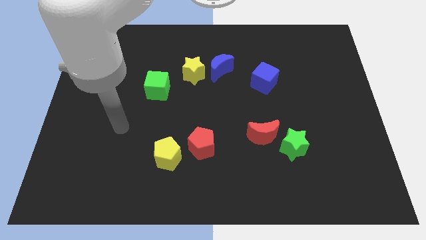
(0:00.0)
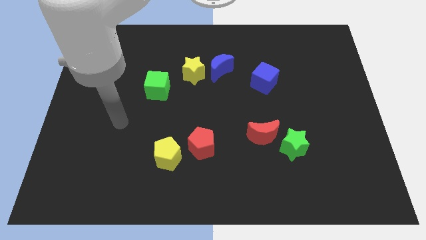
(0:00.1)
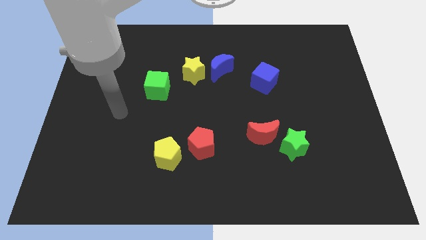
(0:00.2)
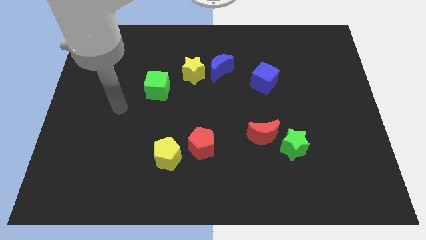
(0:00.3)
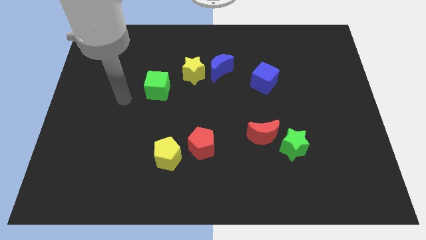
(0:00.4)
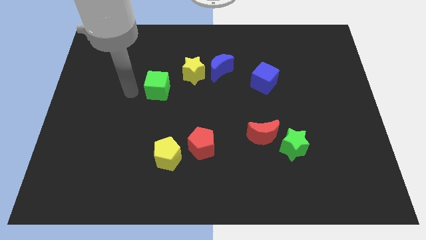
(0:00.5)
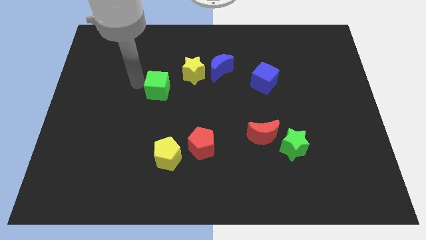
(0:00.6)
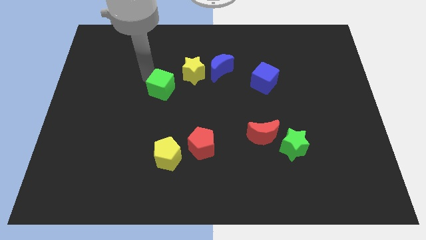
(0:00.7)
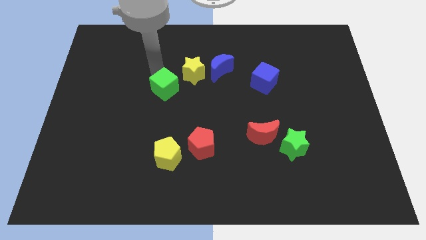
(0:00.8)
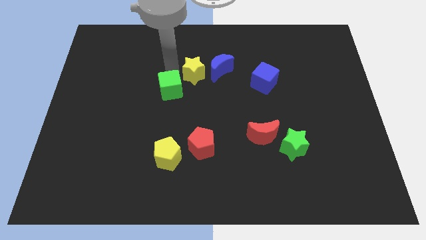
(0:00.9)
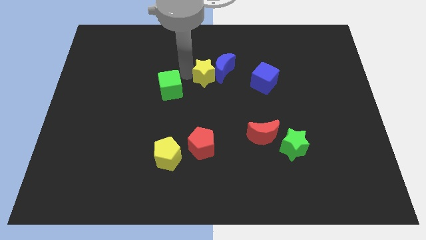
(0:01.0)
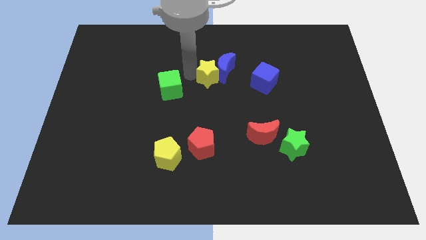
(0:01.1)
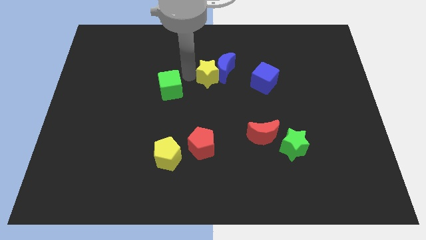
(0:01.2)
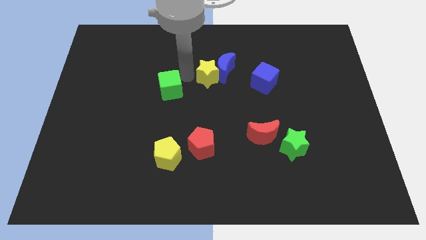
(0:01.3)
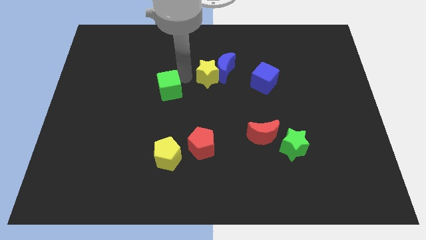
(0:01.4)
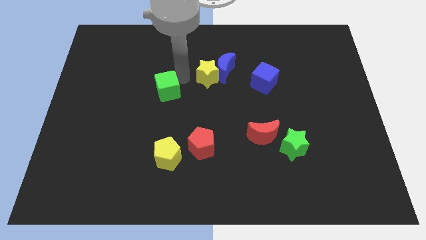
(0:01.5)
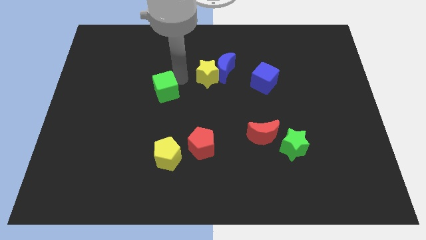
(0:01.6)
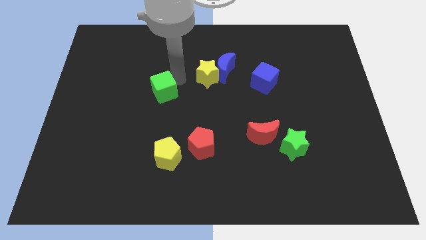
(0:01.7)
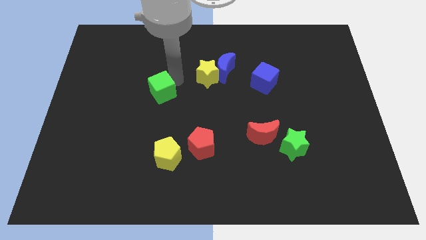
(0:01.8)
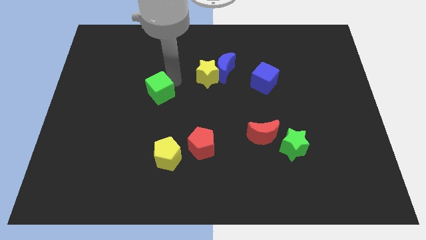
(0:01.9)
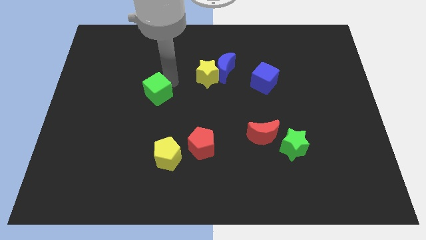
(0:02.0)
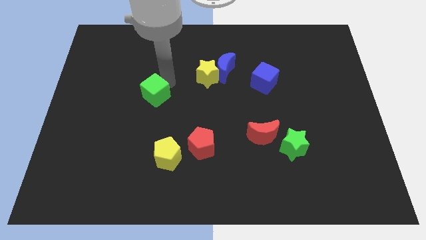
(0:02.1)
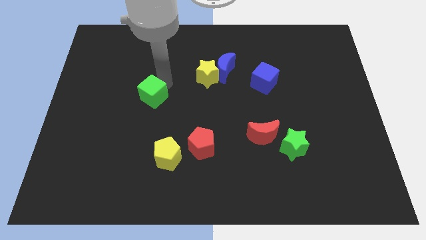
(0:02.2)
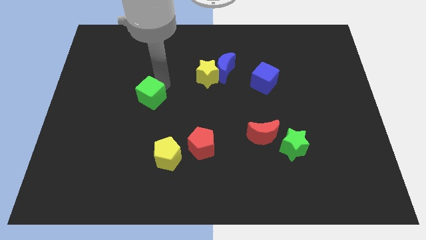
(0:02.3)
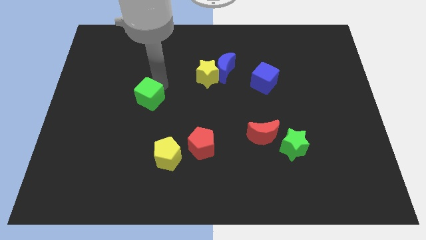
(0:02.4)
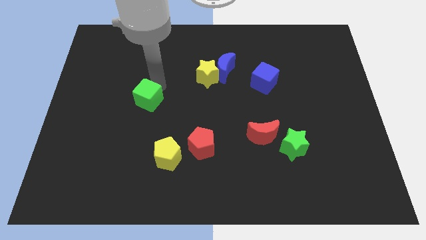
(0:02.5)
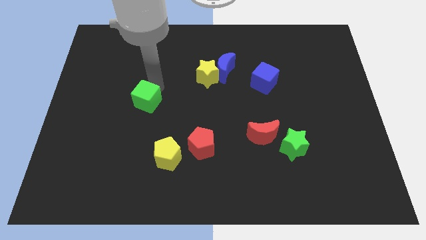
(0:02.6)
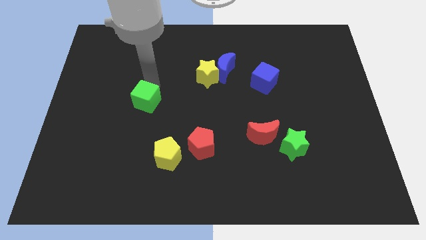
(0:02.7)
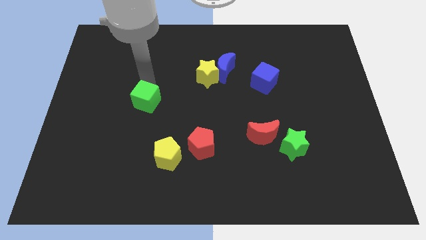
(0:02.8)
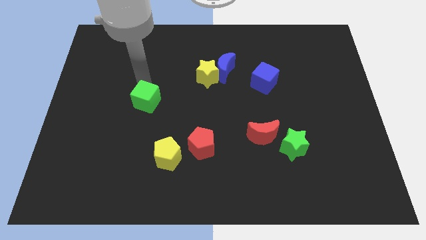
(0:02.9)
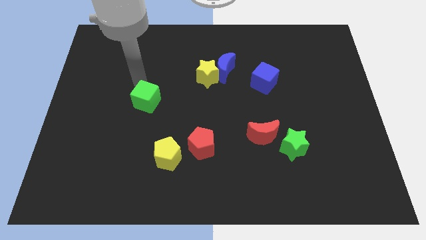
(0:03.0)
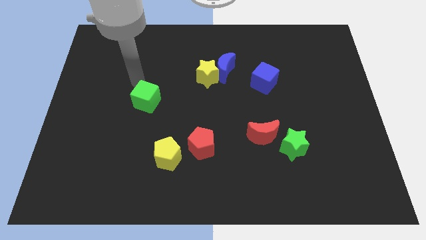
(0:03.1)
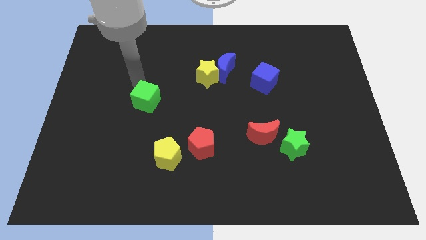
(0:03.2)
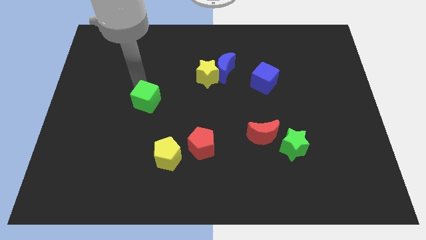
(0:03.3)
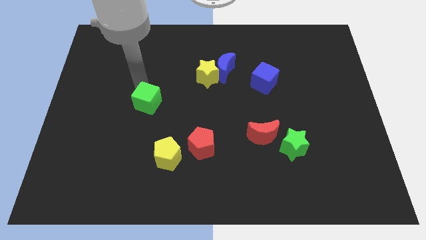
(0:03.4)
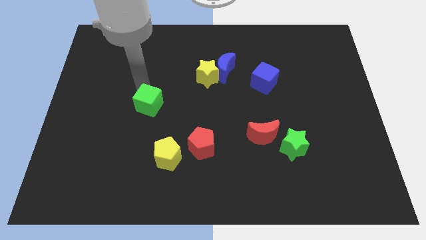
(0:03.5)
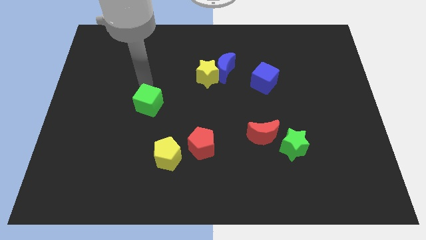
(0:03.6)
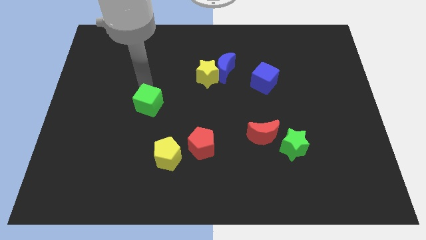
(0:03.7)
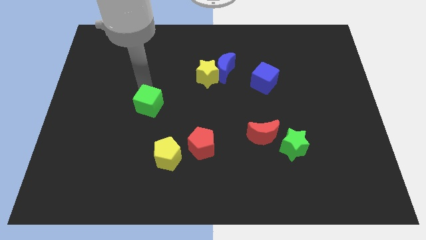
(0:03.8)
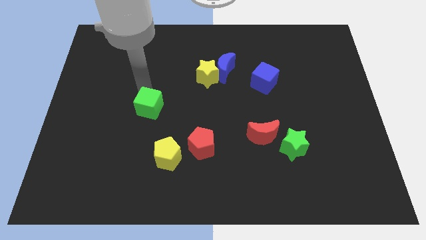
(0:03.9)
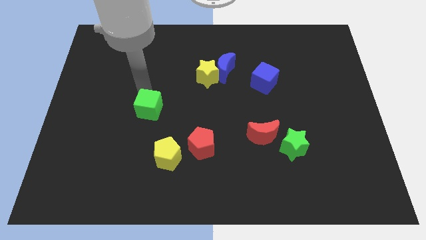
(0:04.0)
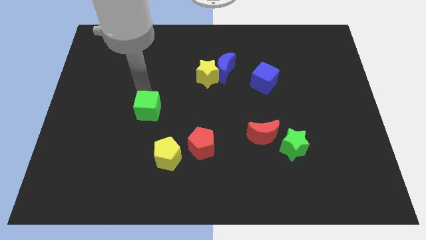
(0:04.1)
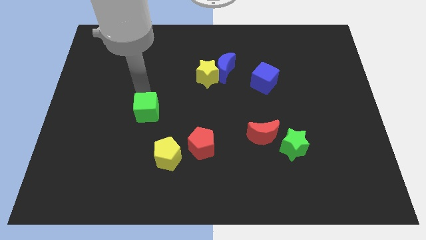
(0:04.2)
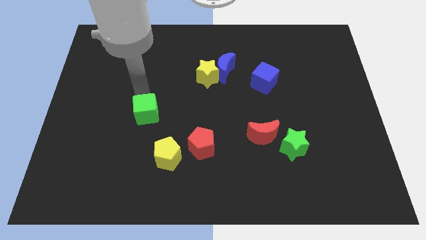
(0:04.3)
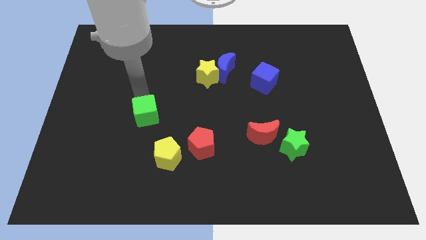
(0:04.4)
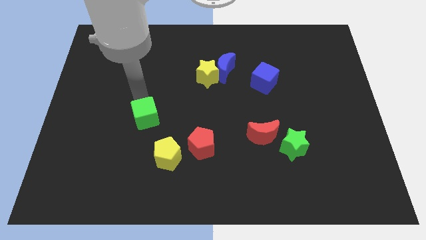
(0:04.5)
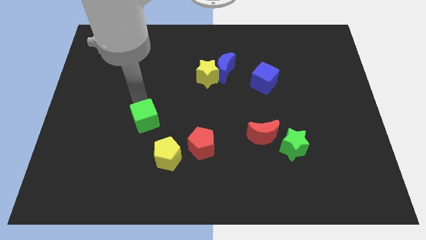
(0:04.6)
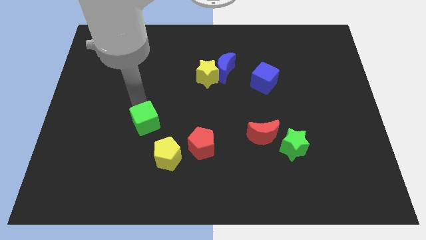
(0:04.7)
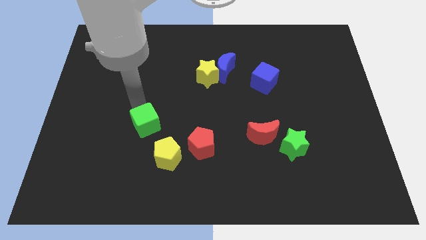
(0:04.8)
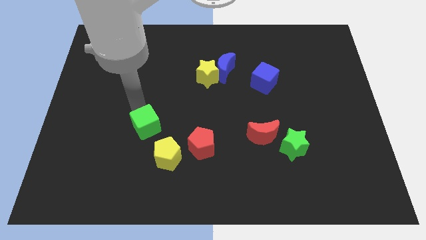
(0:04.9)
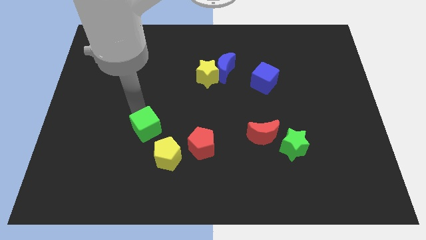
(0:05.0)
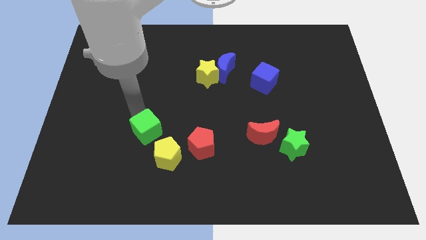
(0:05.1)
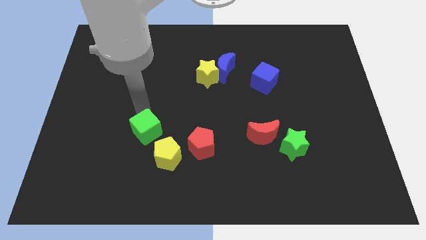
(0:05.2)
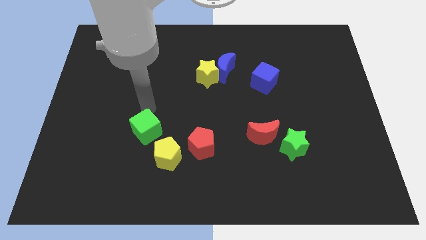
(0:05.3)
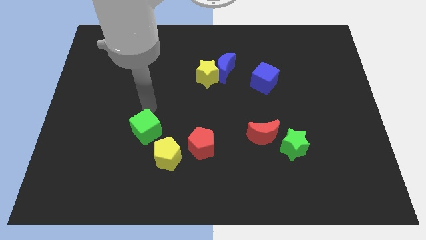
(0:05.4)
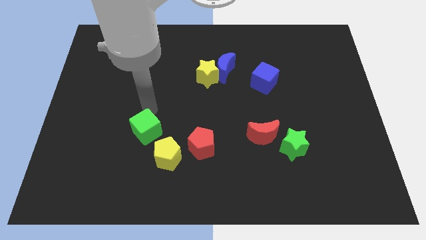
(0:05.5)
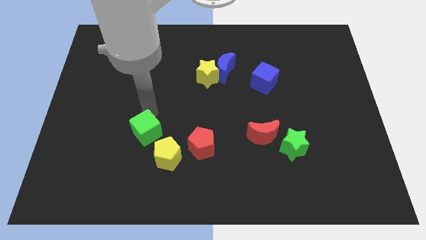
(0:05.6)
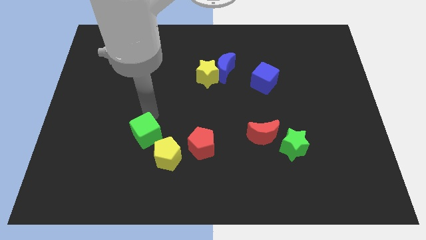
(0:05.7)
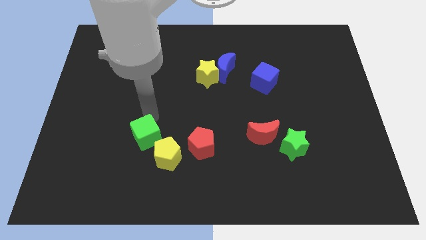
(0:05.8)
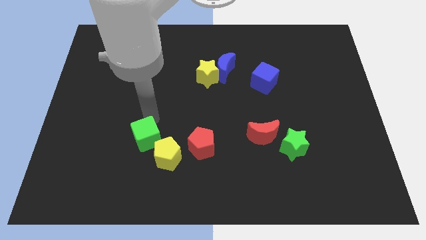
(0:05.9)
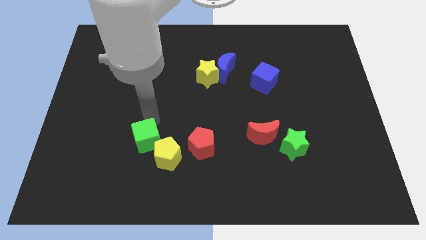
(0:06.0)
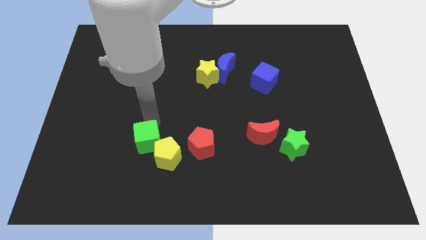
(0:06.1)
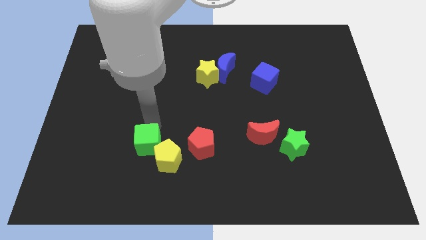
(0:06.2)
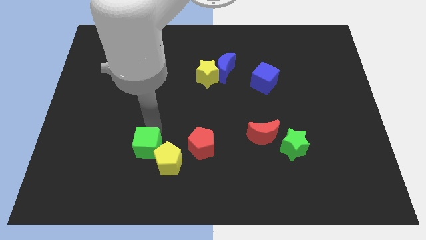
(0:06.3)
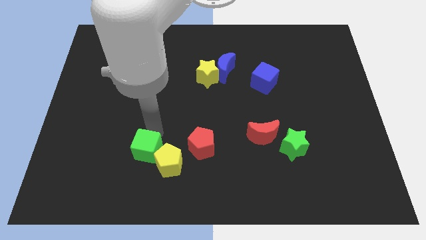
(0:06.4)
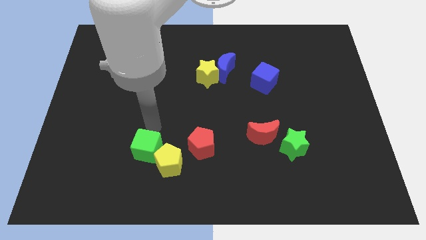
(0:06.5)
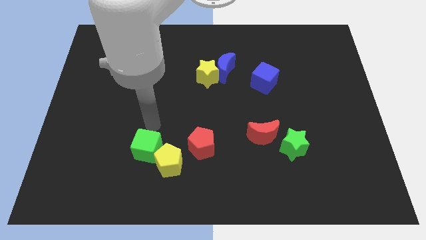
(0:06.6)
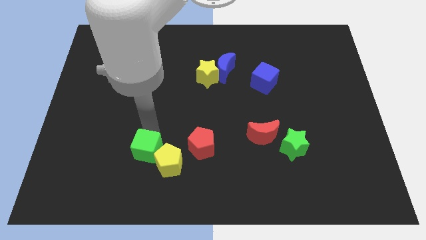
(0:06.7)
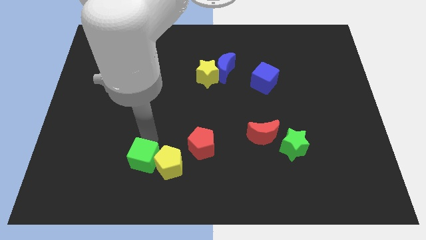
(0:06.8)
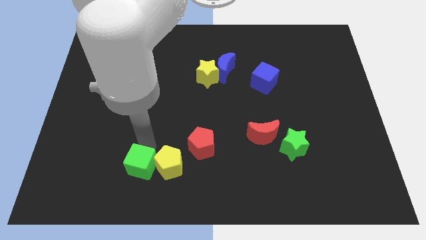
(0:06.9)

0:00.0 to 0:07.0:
slide the green cube diagonally down and to the left of the yellow pentagon

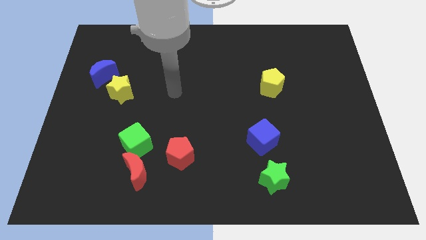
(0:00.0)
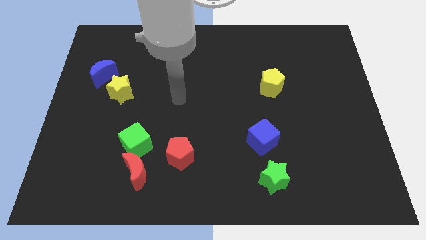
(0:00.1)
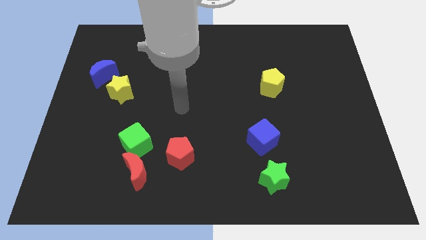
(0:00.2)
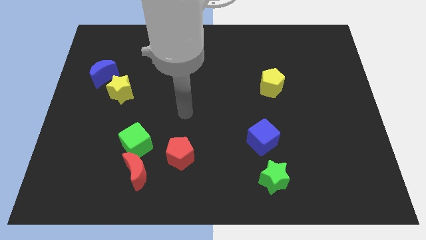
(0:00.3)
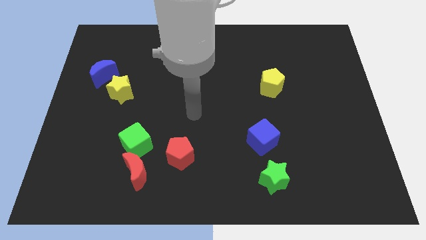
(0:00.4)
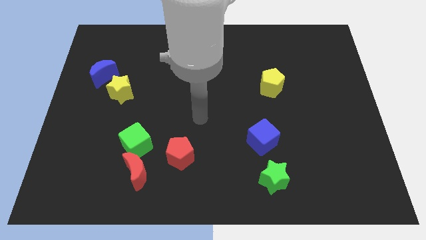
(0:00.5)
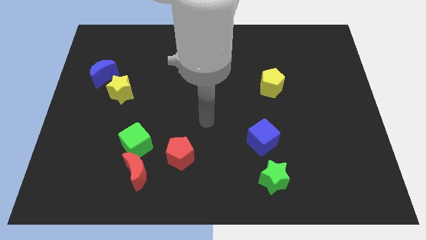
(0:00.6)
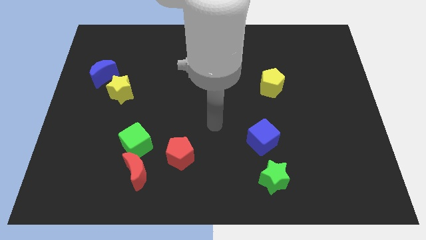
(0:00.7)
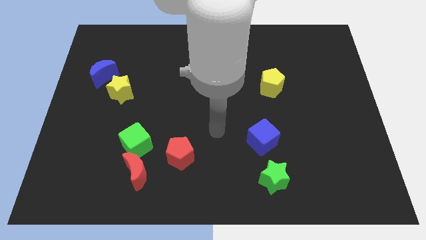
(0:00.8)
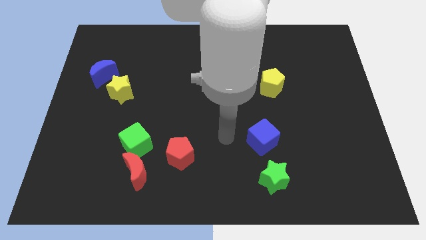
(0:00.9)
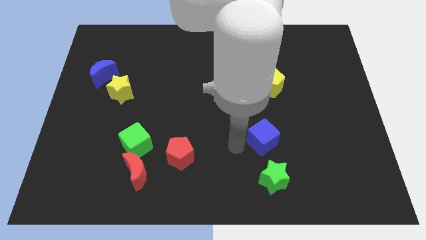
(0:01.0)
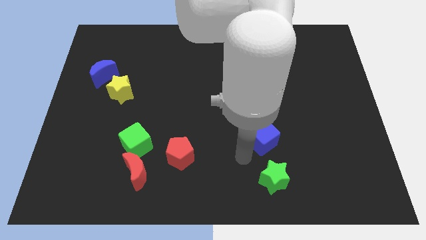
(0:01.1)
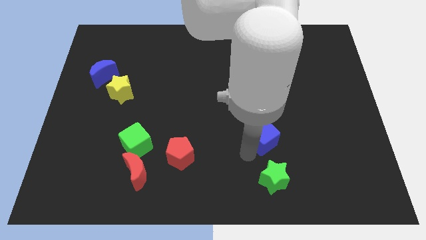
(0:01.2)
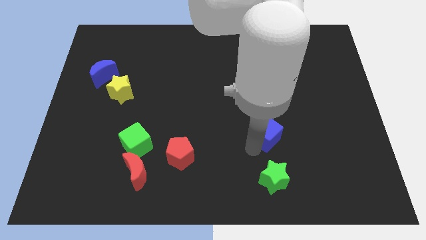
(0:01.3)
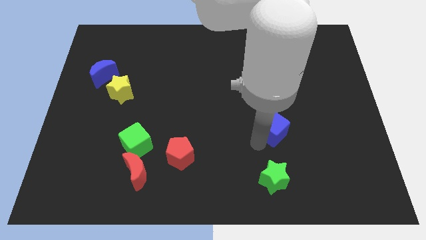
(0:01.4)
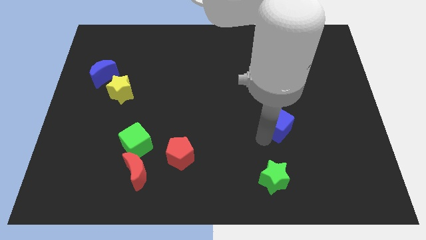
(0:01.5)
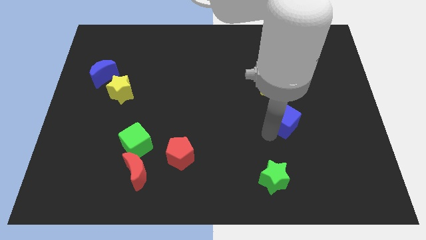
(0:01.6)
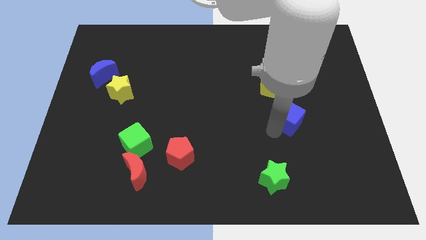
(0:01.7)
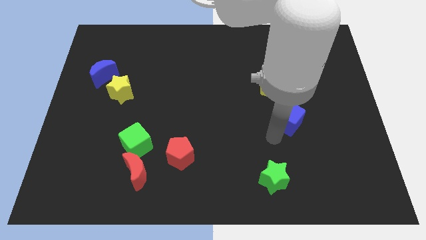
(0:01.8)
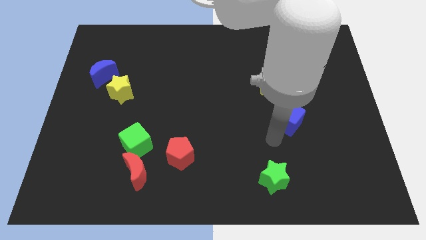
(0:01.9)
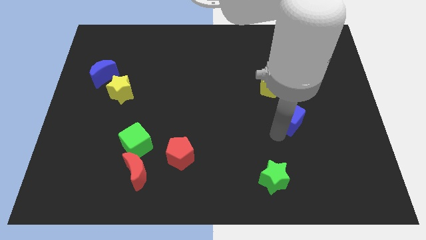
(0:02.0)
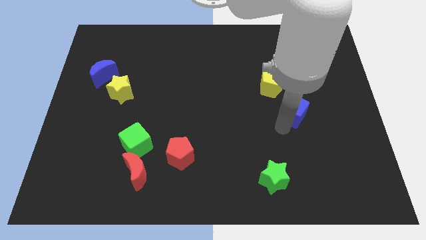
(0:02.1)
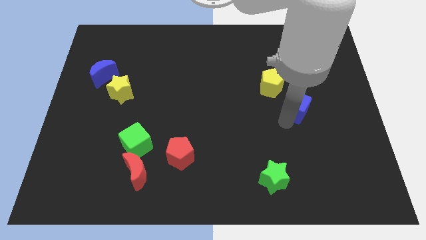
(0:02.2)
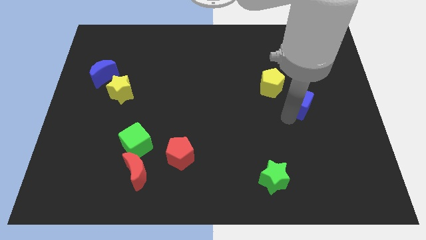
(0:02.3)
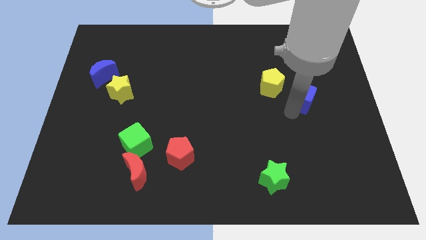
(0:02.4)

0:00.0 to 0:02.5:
slide the blue cube to the right side of the yellow pentagon
